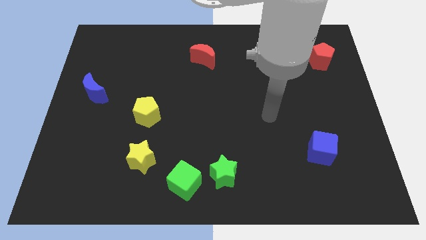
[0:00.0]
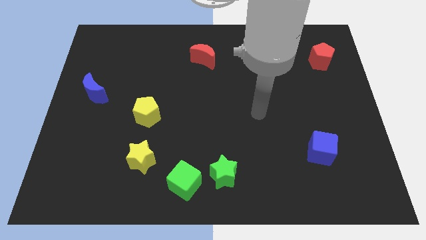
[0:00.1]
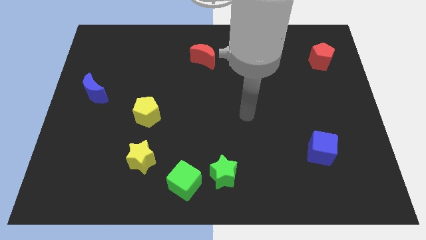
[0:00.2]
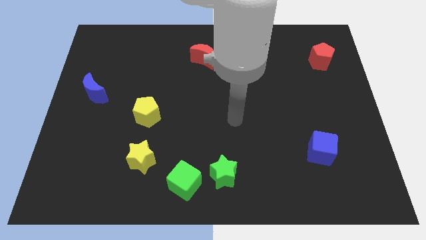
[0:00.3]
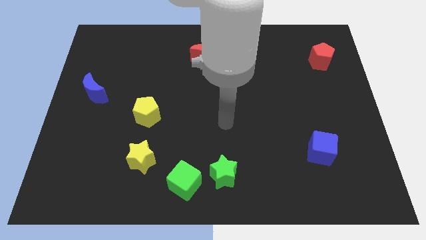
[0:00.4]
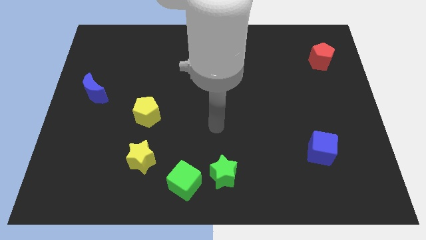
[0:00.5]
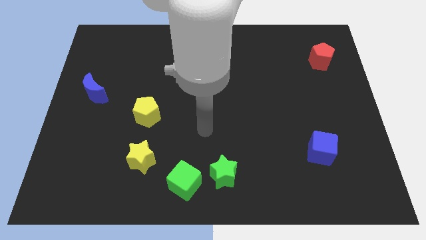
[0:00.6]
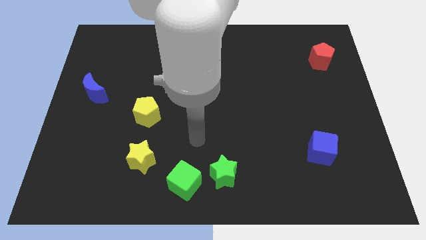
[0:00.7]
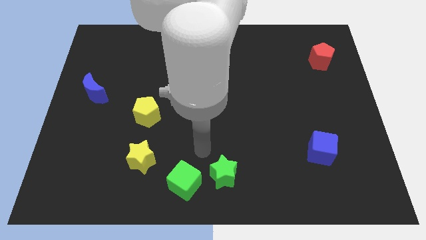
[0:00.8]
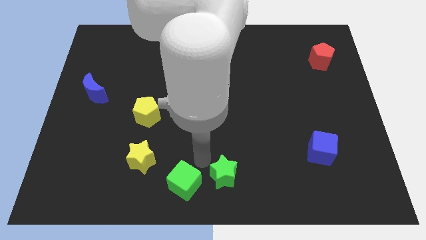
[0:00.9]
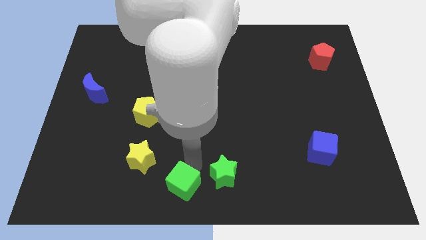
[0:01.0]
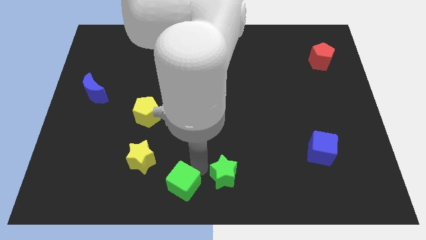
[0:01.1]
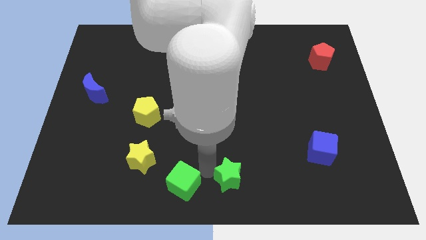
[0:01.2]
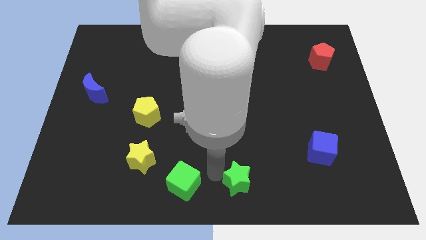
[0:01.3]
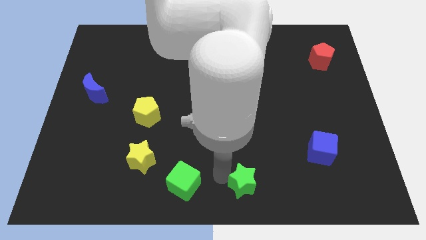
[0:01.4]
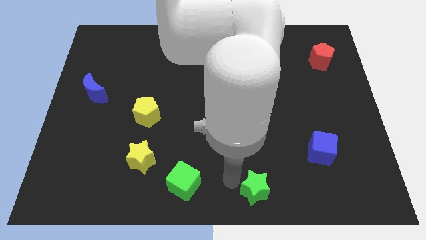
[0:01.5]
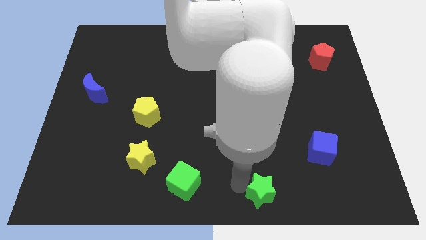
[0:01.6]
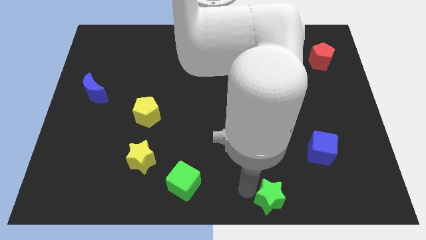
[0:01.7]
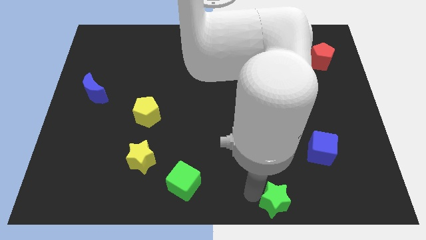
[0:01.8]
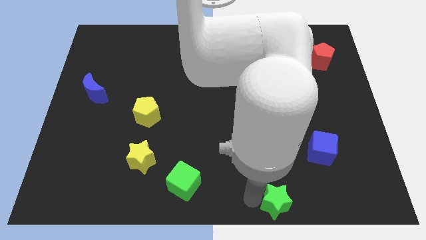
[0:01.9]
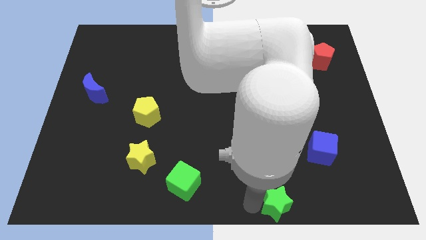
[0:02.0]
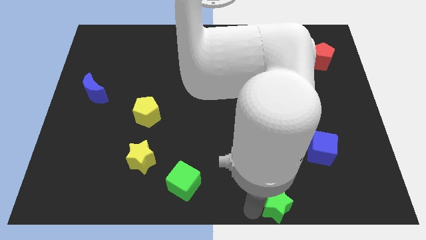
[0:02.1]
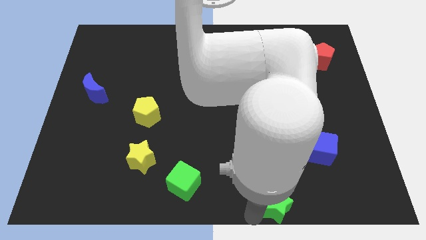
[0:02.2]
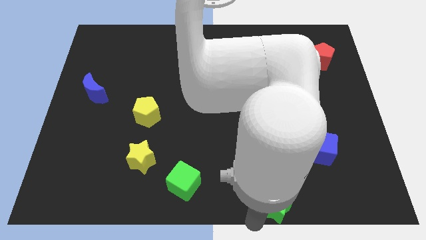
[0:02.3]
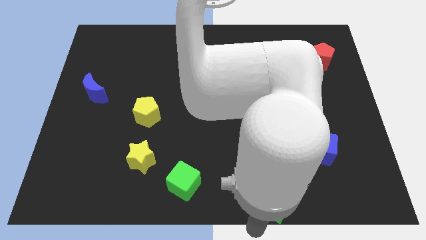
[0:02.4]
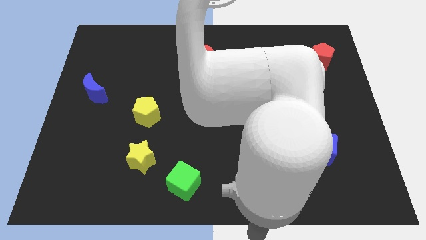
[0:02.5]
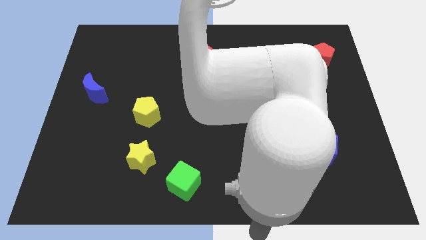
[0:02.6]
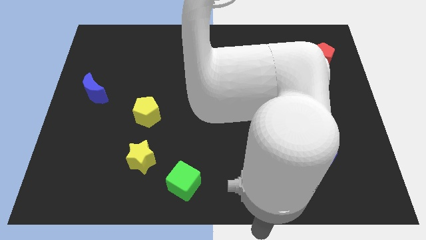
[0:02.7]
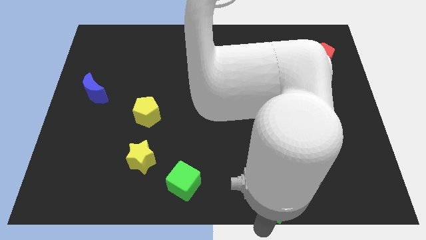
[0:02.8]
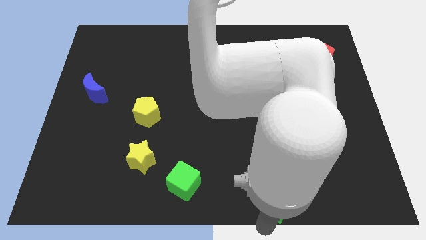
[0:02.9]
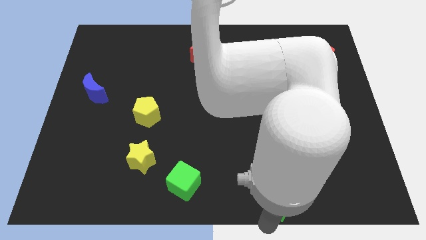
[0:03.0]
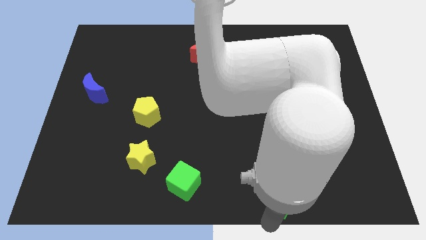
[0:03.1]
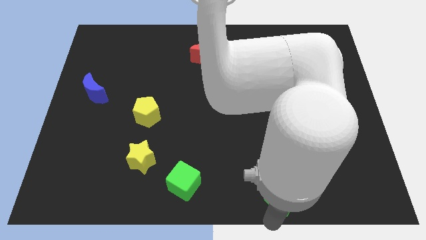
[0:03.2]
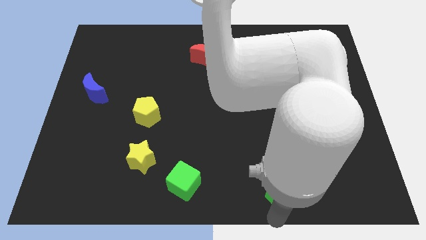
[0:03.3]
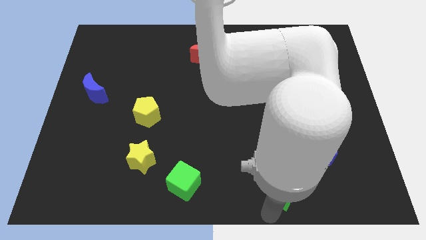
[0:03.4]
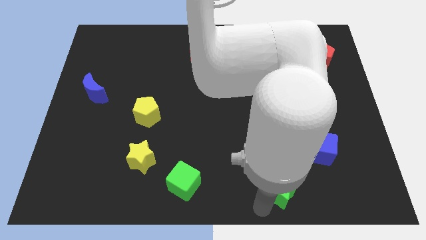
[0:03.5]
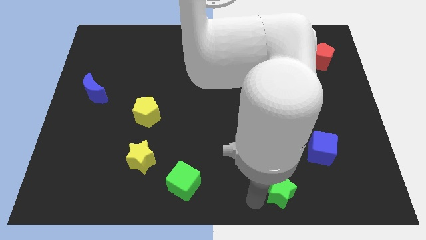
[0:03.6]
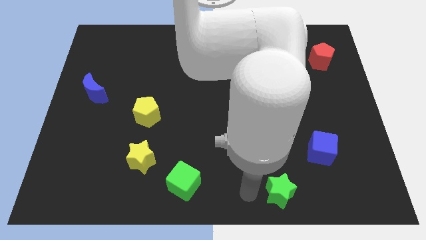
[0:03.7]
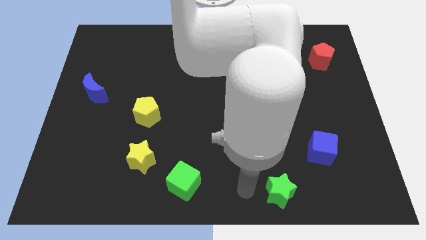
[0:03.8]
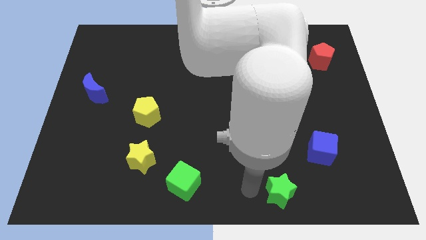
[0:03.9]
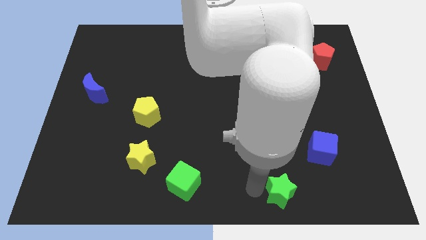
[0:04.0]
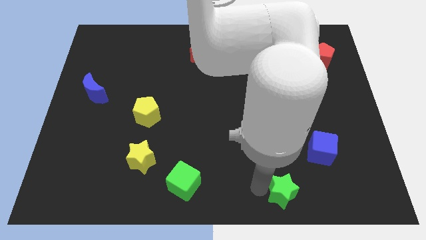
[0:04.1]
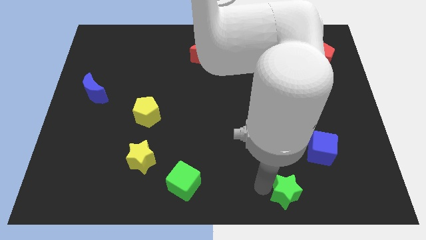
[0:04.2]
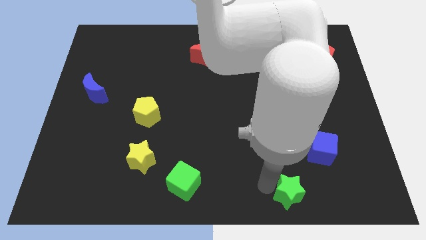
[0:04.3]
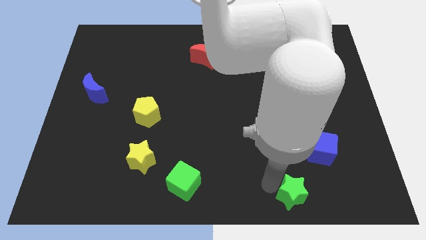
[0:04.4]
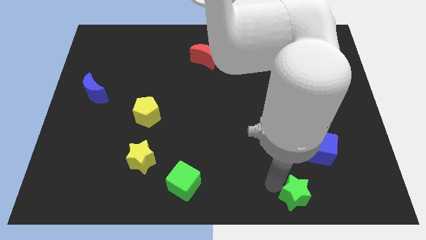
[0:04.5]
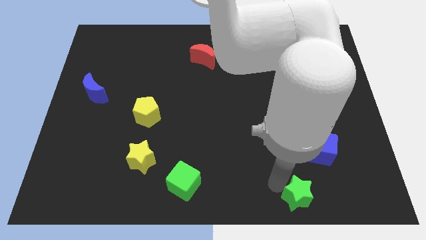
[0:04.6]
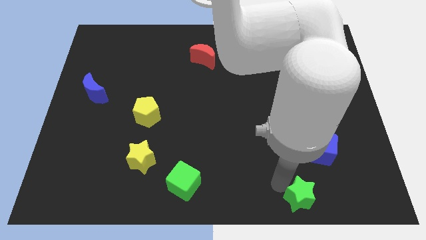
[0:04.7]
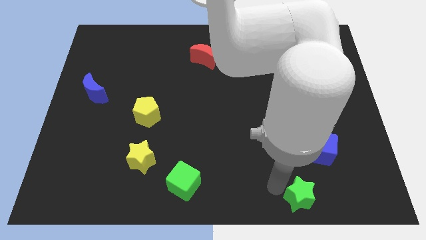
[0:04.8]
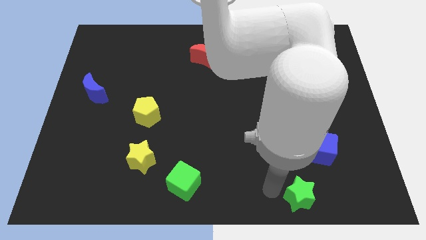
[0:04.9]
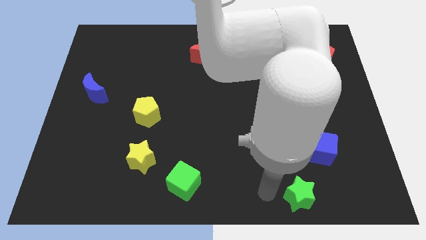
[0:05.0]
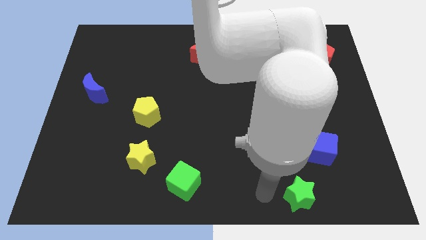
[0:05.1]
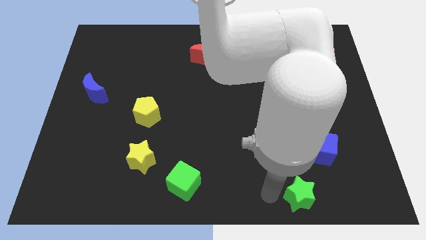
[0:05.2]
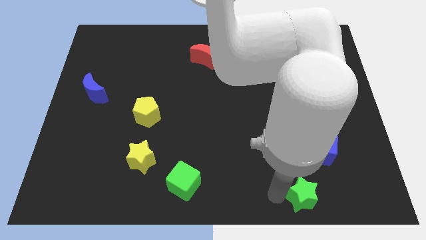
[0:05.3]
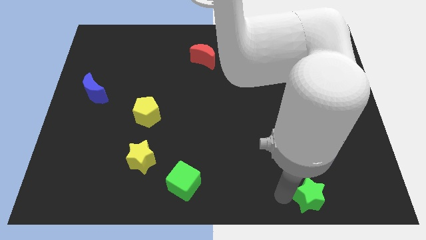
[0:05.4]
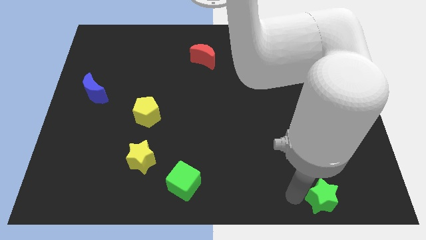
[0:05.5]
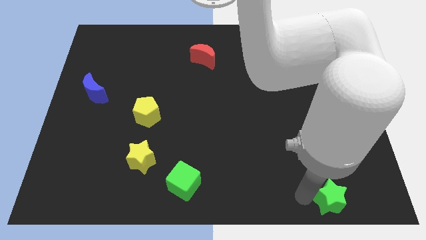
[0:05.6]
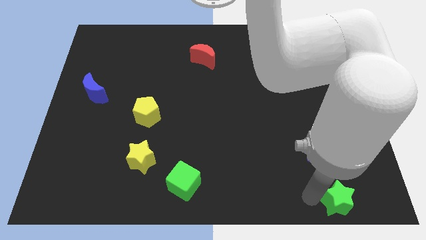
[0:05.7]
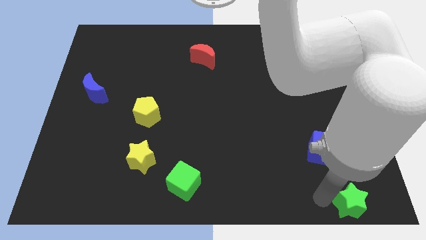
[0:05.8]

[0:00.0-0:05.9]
put the green star to the bottom right
